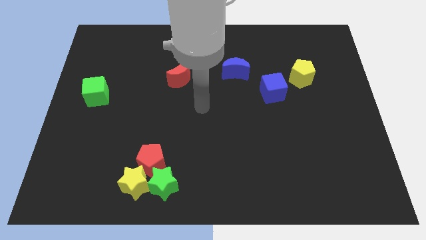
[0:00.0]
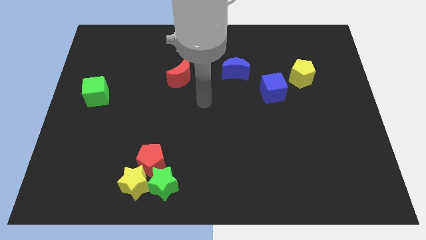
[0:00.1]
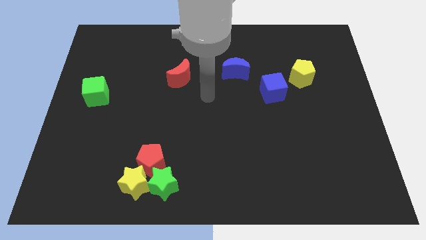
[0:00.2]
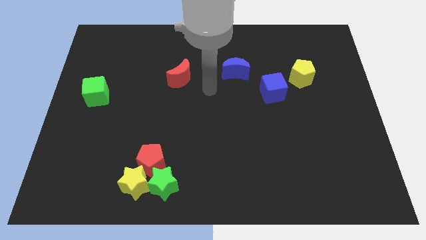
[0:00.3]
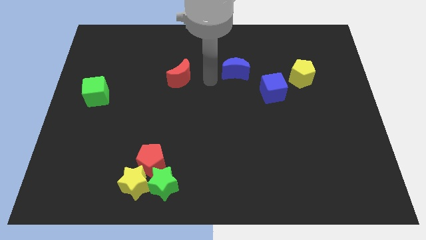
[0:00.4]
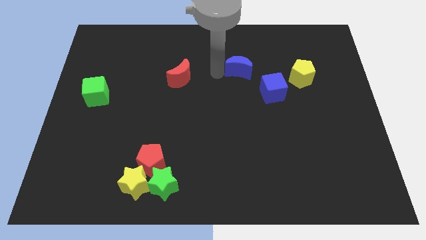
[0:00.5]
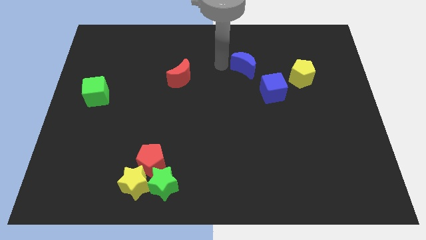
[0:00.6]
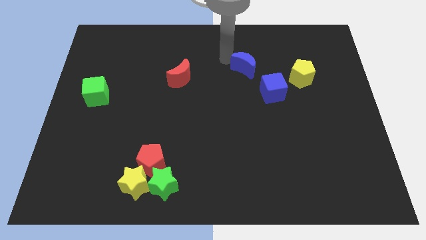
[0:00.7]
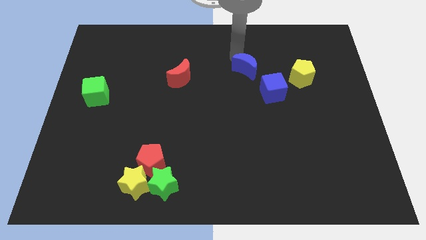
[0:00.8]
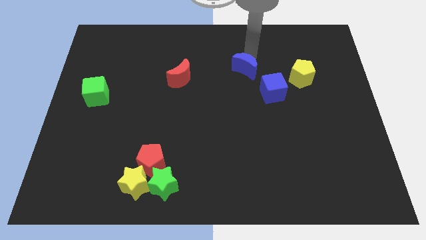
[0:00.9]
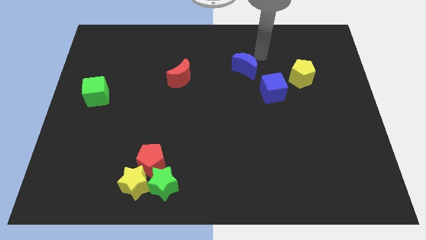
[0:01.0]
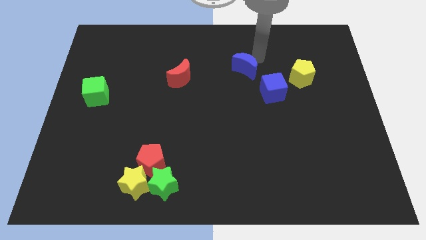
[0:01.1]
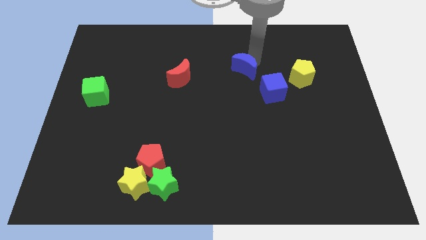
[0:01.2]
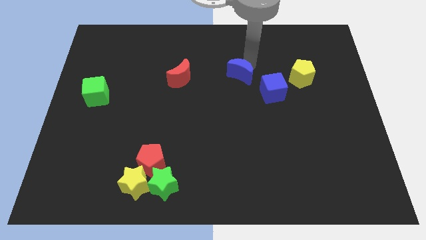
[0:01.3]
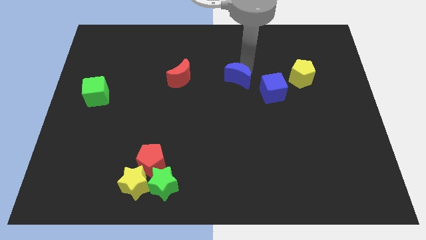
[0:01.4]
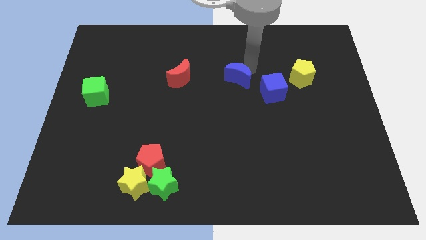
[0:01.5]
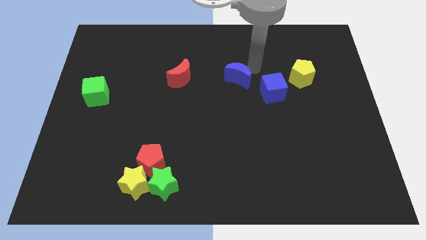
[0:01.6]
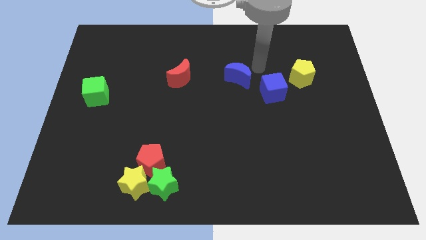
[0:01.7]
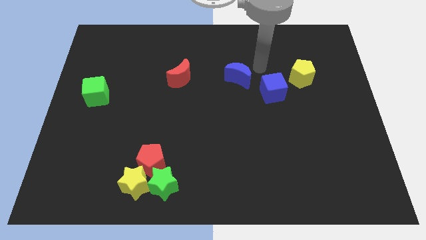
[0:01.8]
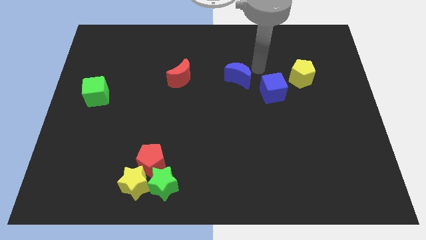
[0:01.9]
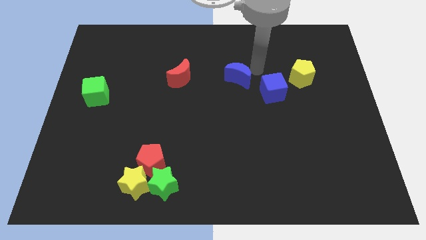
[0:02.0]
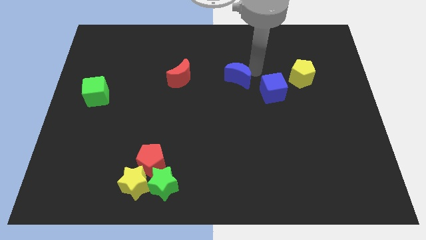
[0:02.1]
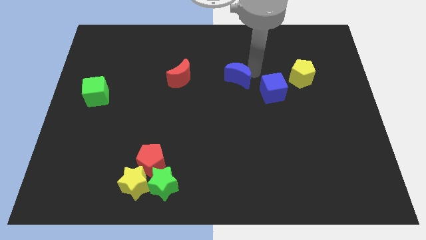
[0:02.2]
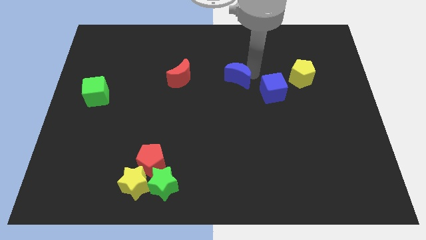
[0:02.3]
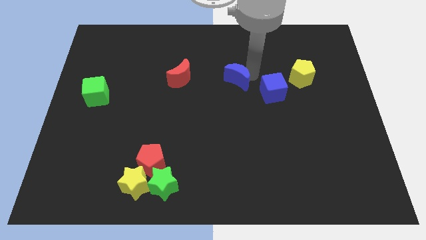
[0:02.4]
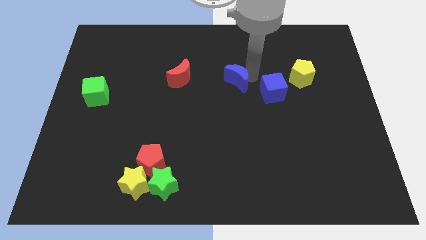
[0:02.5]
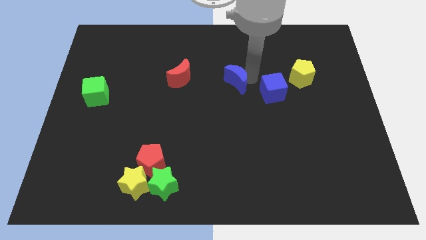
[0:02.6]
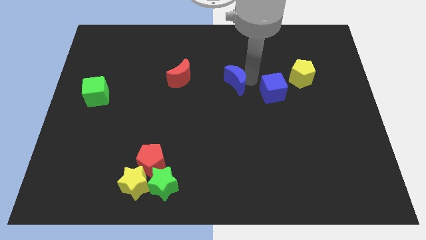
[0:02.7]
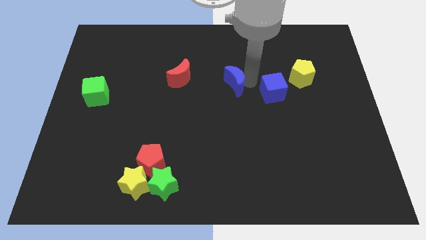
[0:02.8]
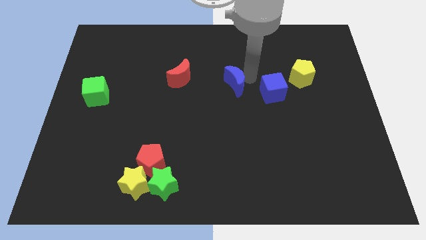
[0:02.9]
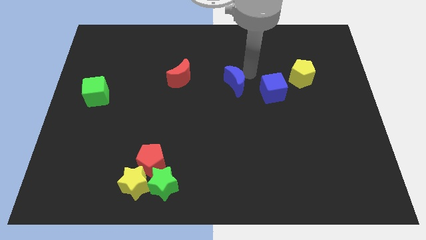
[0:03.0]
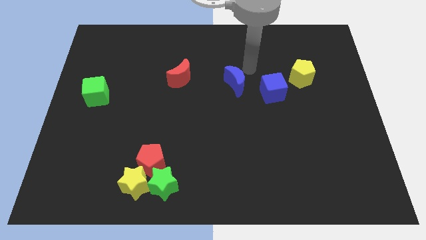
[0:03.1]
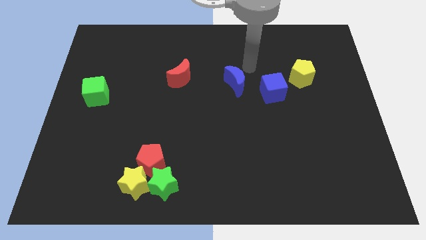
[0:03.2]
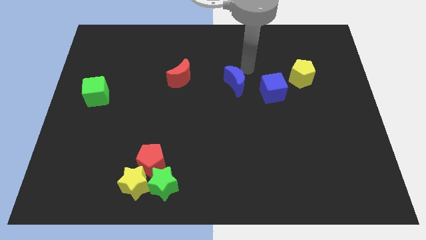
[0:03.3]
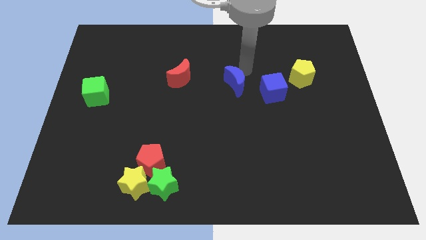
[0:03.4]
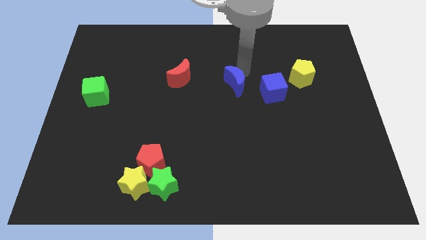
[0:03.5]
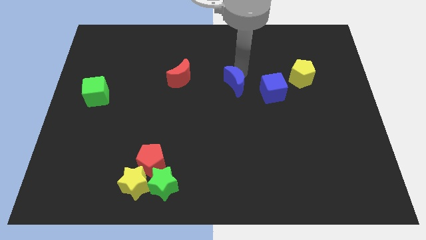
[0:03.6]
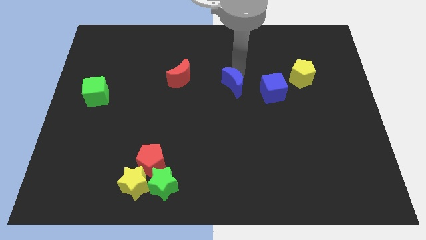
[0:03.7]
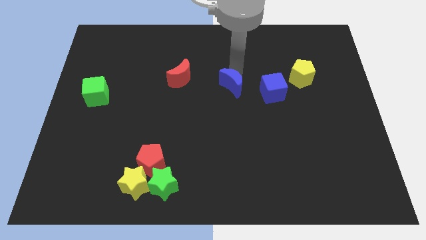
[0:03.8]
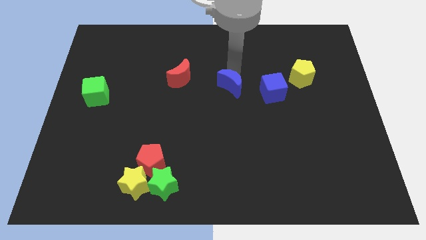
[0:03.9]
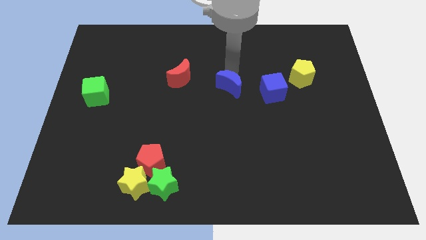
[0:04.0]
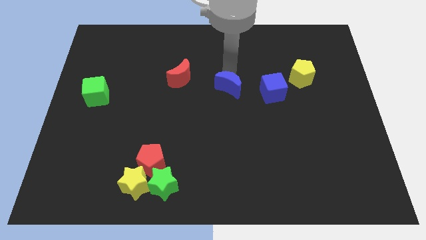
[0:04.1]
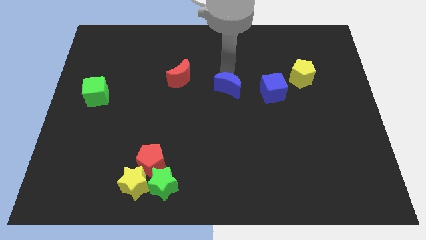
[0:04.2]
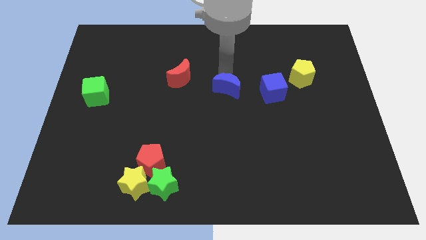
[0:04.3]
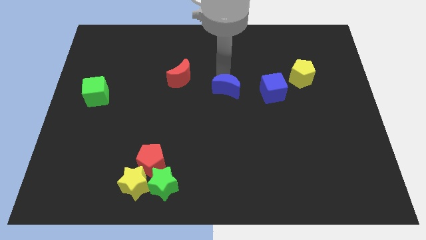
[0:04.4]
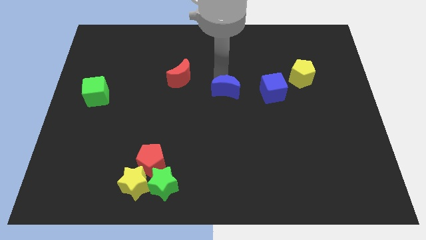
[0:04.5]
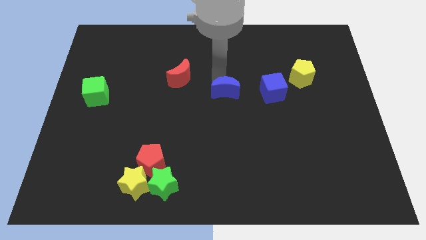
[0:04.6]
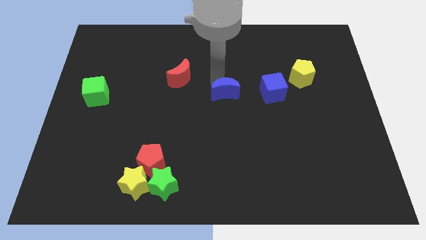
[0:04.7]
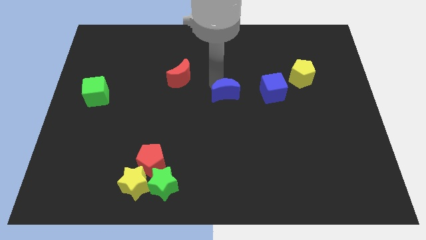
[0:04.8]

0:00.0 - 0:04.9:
slightly slide the blue moon downwards

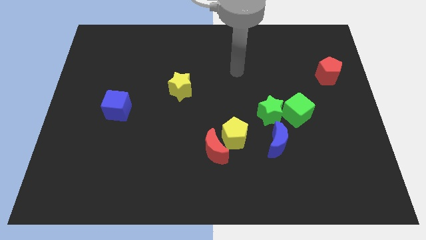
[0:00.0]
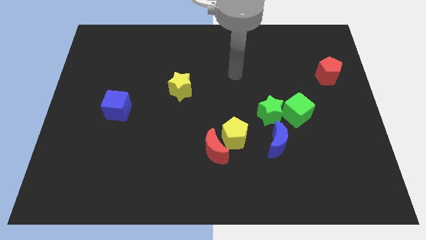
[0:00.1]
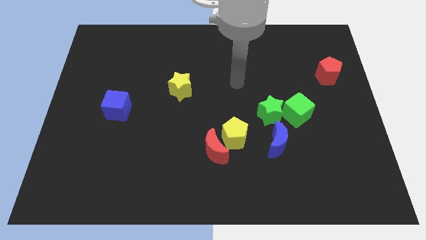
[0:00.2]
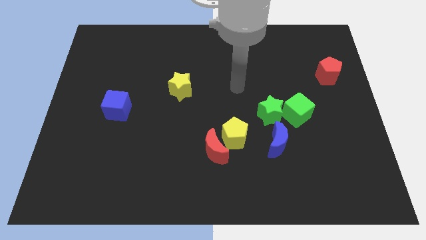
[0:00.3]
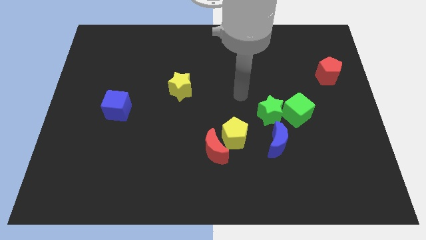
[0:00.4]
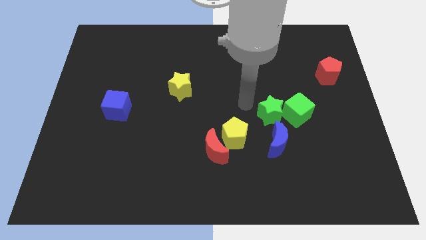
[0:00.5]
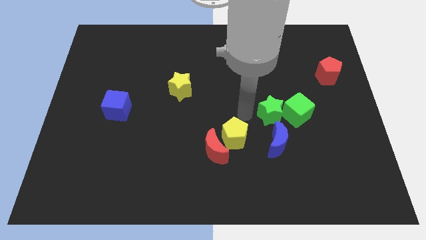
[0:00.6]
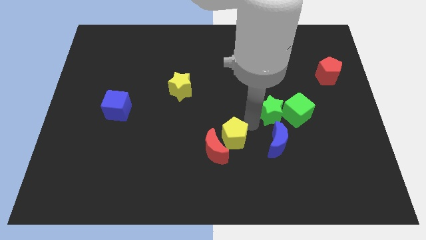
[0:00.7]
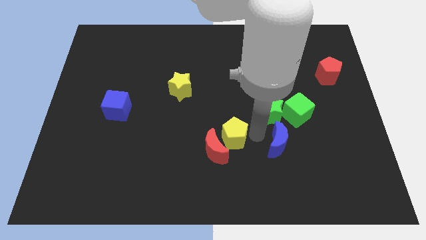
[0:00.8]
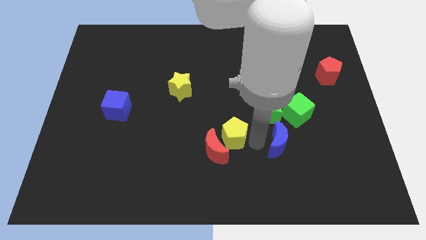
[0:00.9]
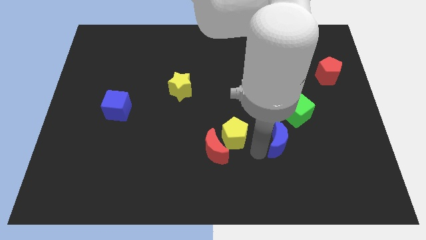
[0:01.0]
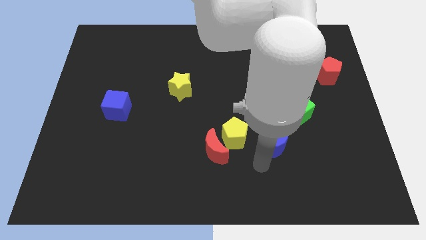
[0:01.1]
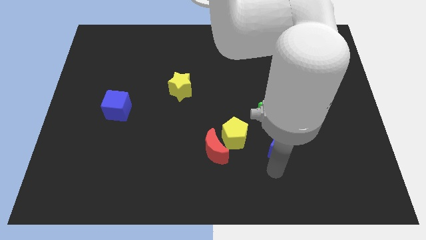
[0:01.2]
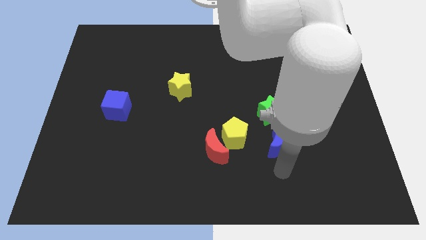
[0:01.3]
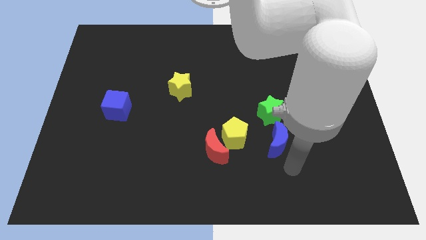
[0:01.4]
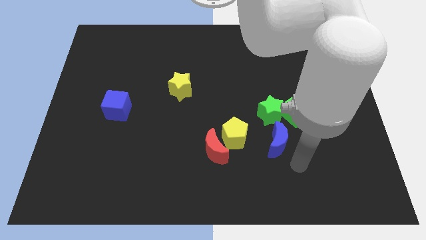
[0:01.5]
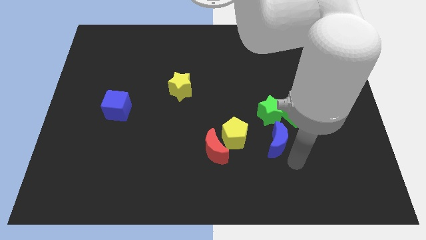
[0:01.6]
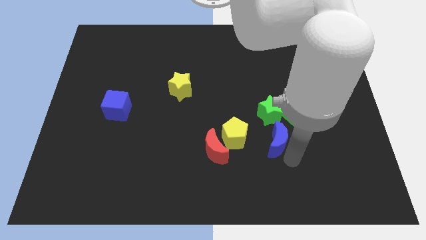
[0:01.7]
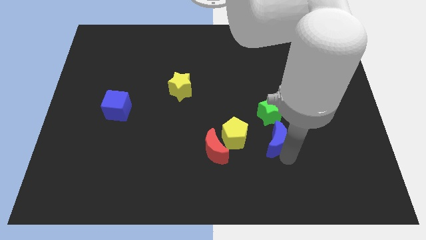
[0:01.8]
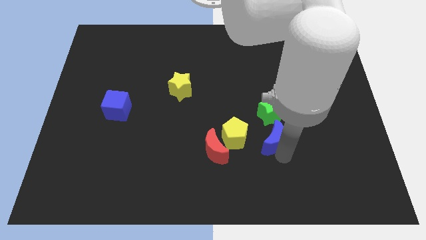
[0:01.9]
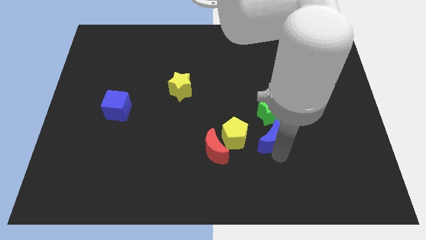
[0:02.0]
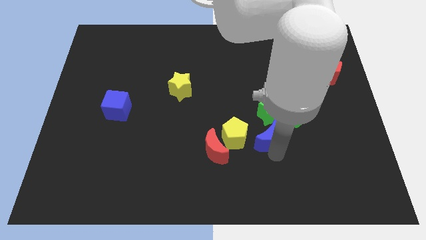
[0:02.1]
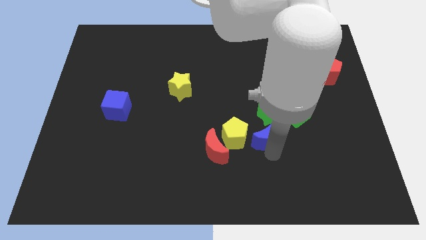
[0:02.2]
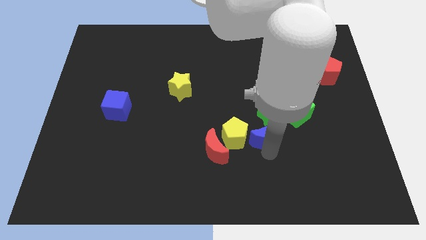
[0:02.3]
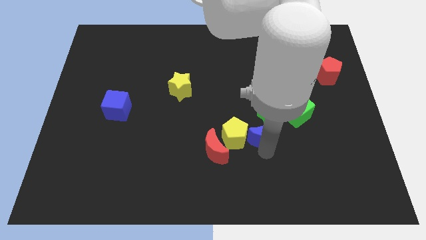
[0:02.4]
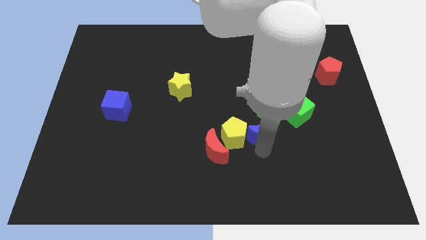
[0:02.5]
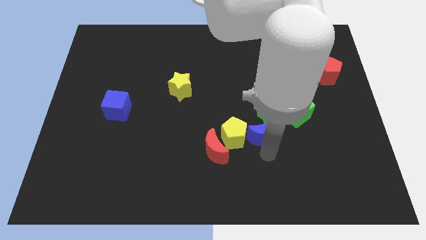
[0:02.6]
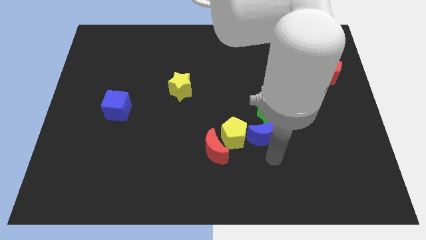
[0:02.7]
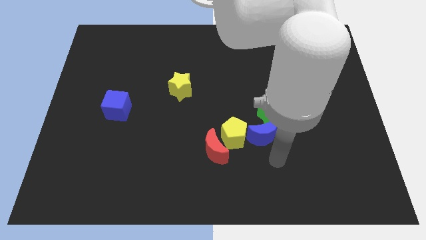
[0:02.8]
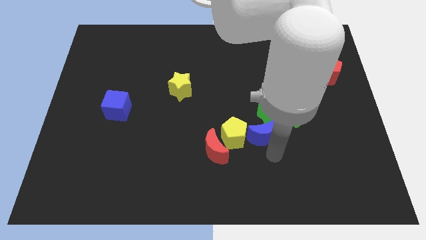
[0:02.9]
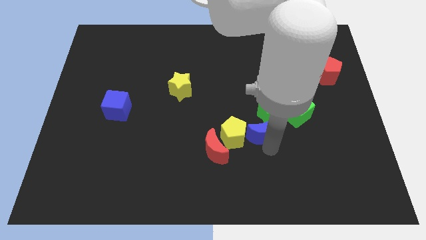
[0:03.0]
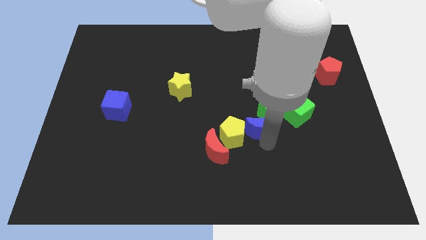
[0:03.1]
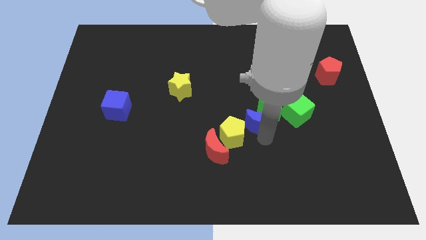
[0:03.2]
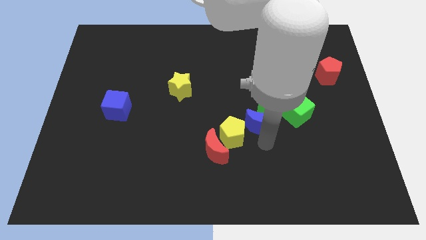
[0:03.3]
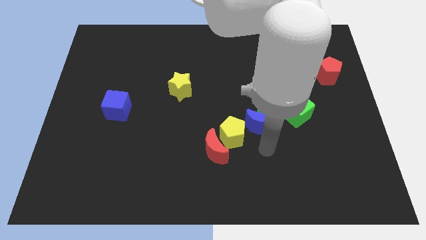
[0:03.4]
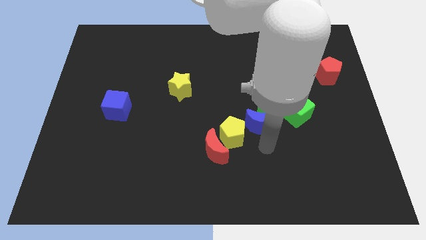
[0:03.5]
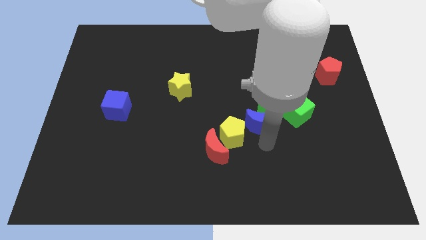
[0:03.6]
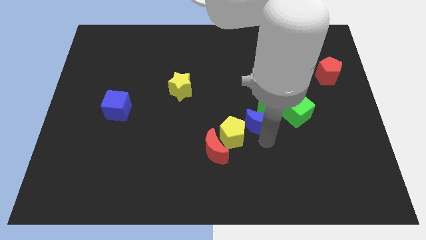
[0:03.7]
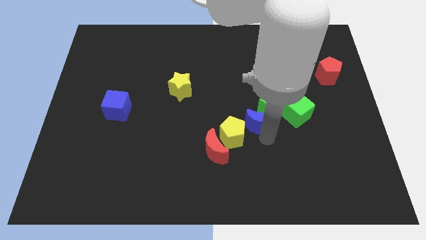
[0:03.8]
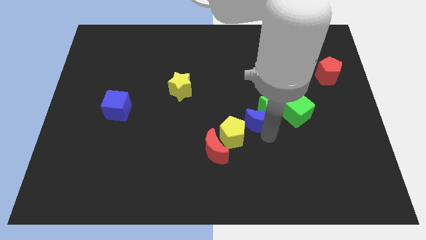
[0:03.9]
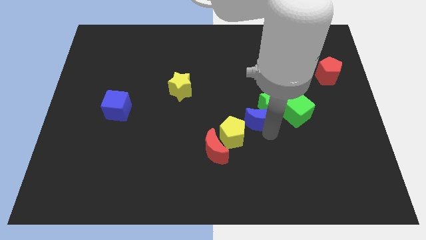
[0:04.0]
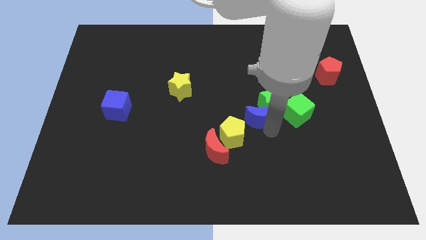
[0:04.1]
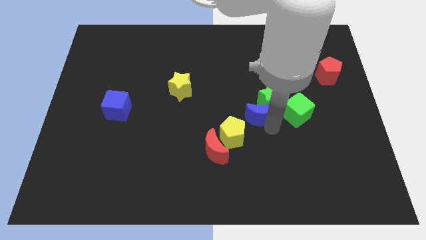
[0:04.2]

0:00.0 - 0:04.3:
slide the blue moon up slightly
